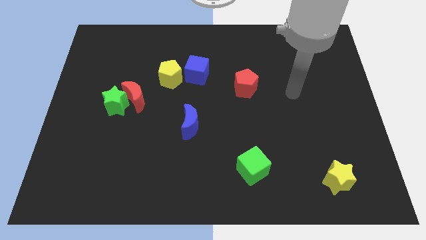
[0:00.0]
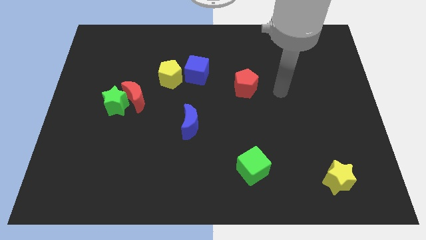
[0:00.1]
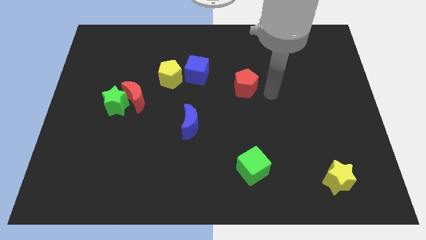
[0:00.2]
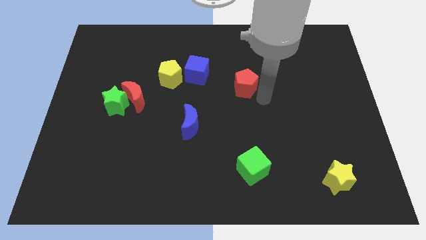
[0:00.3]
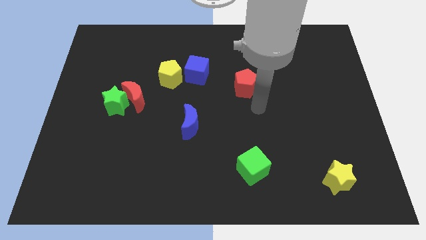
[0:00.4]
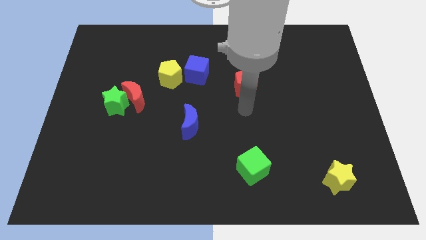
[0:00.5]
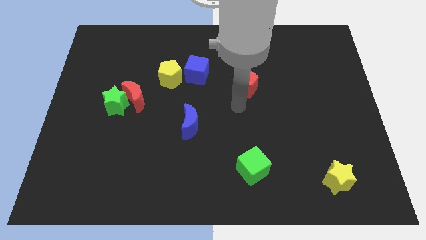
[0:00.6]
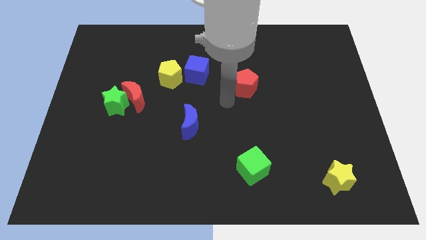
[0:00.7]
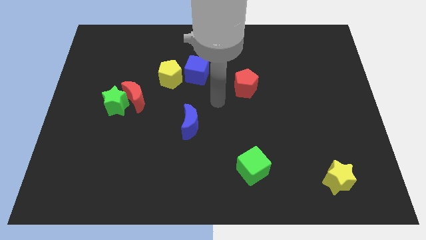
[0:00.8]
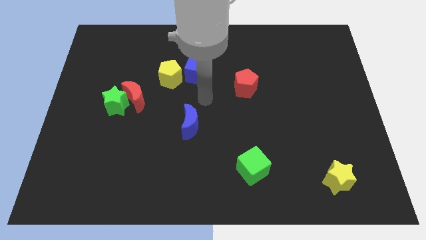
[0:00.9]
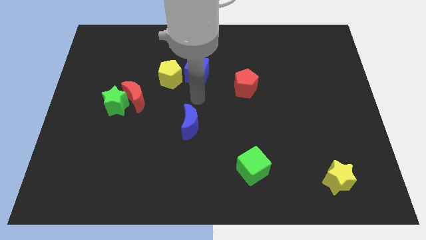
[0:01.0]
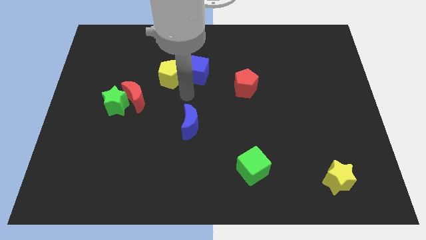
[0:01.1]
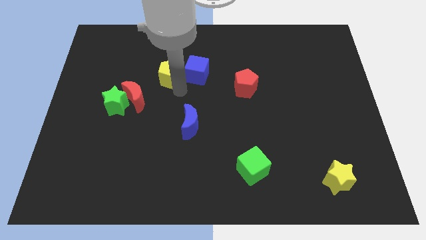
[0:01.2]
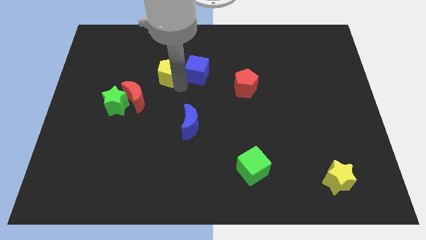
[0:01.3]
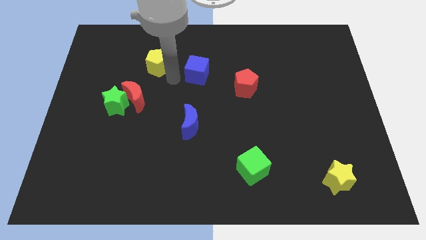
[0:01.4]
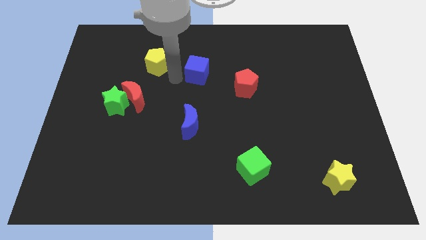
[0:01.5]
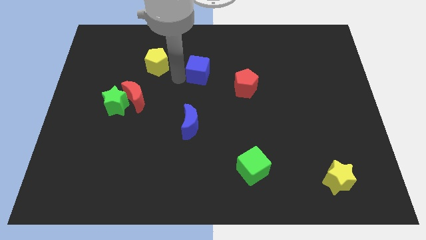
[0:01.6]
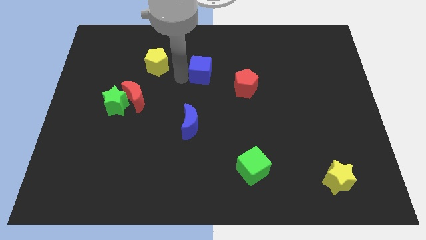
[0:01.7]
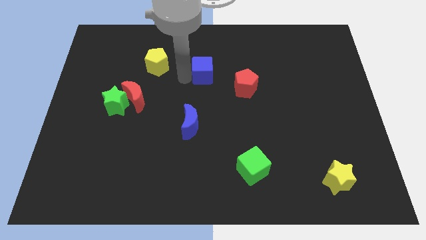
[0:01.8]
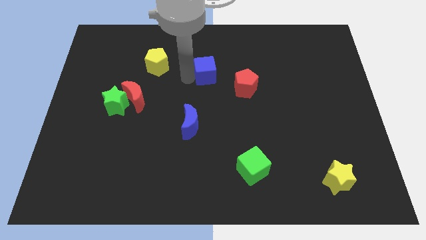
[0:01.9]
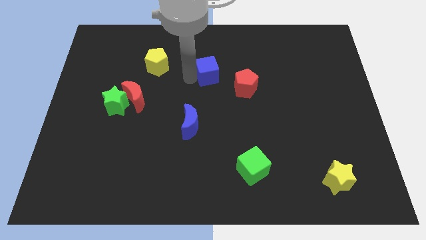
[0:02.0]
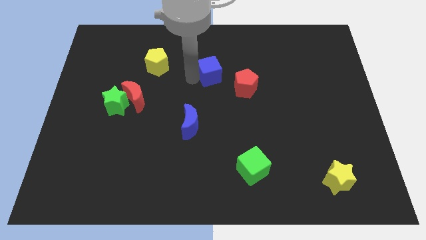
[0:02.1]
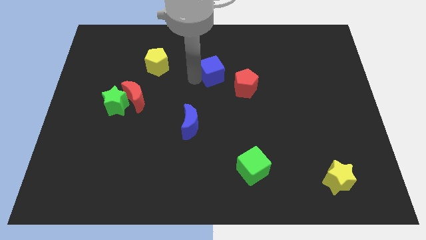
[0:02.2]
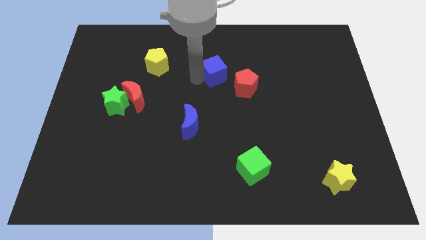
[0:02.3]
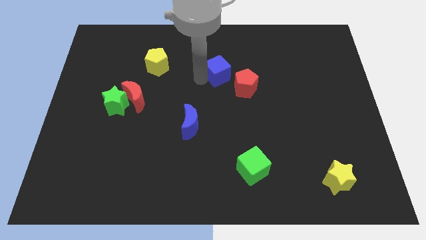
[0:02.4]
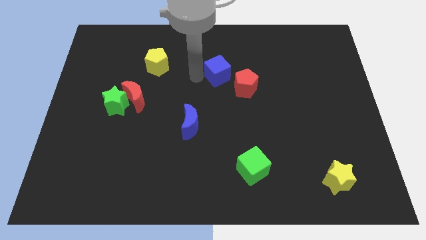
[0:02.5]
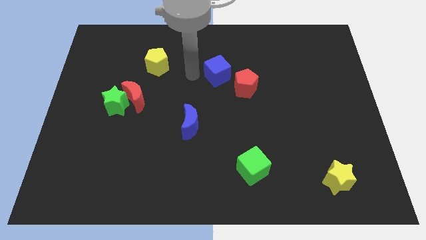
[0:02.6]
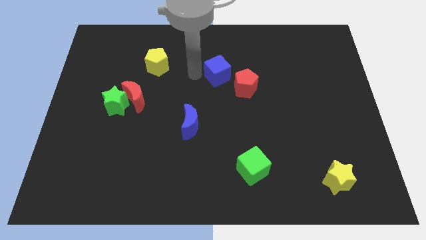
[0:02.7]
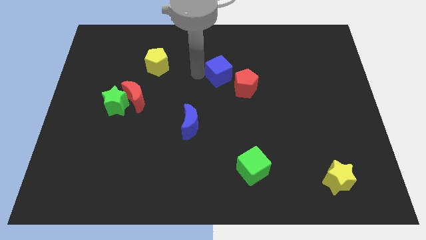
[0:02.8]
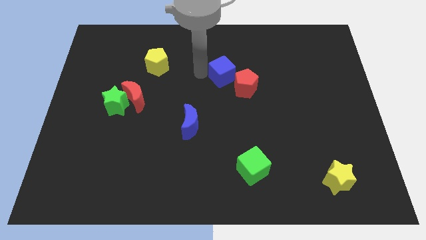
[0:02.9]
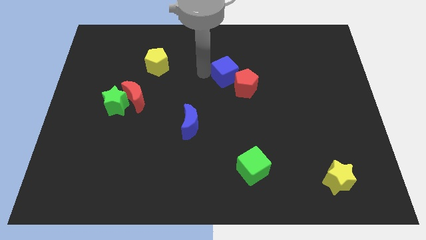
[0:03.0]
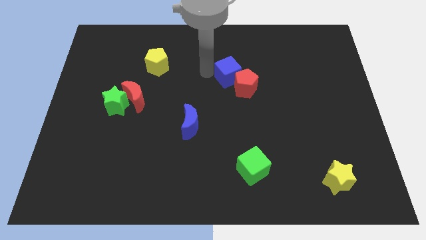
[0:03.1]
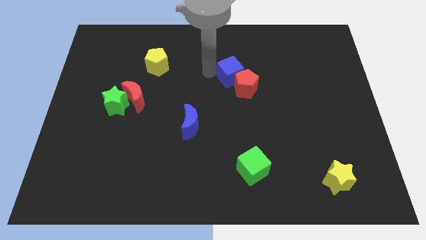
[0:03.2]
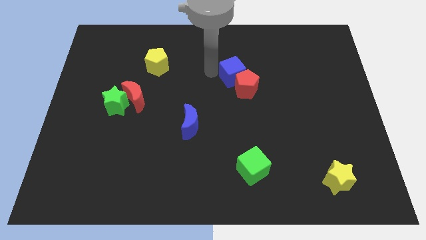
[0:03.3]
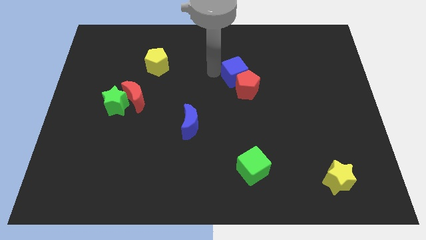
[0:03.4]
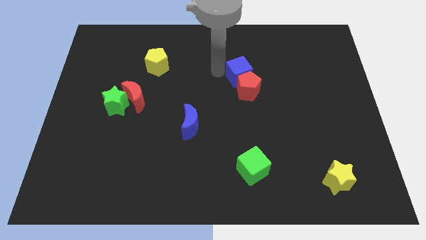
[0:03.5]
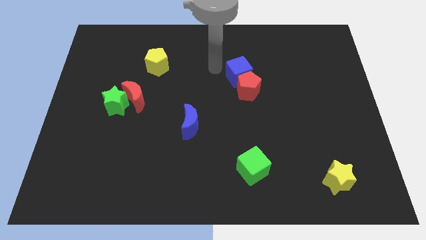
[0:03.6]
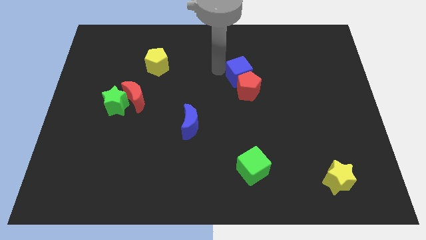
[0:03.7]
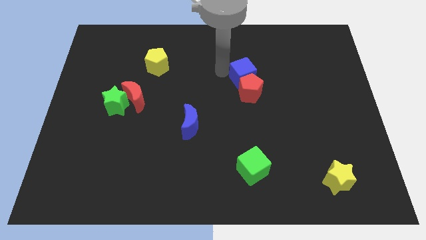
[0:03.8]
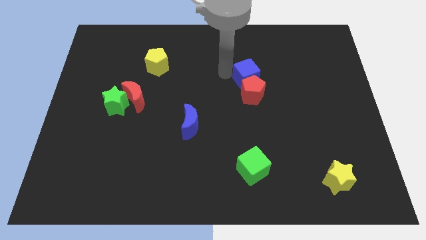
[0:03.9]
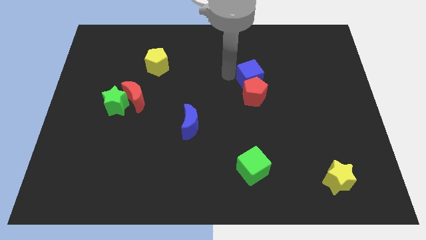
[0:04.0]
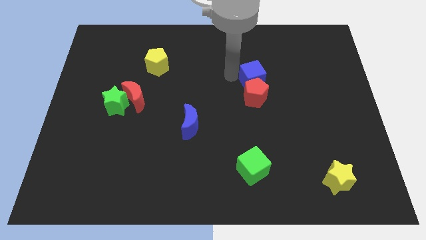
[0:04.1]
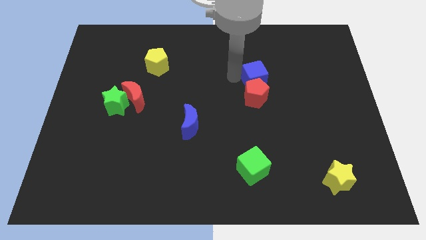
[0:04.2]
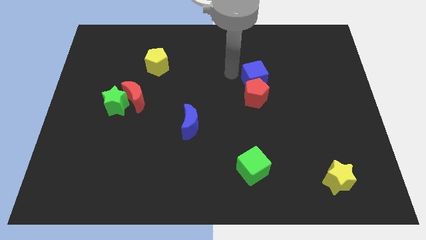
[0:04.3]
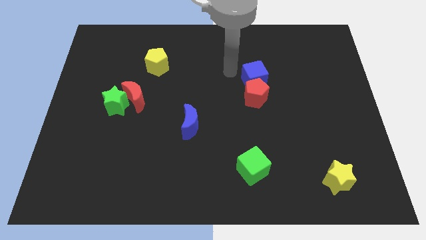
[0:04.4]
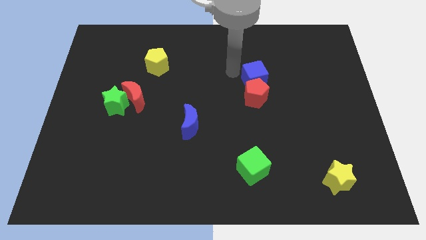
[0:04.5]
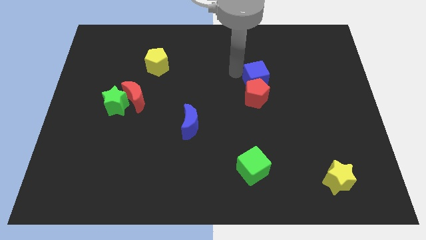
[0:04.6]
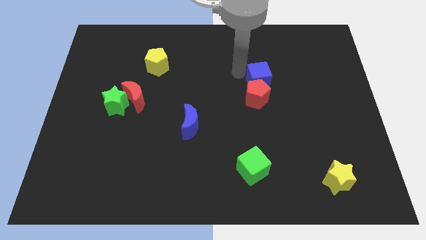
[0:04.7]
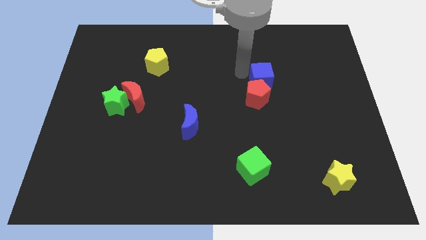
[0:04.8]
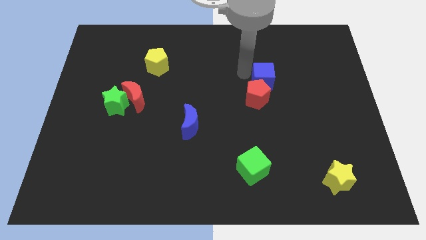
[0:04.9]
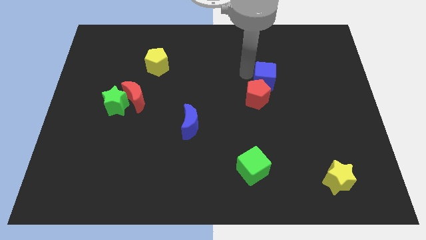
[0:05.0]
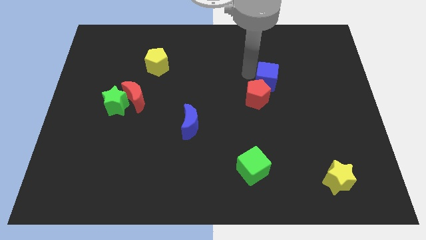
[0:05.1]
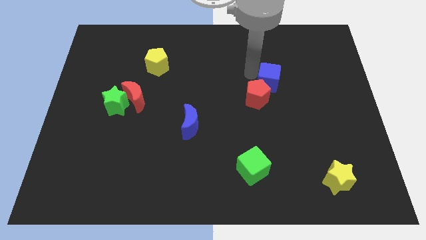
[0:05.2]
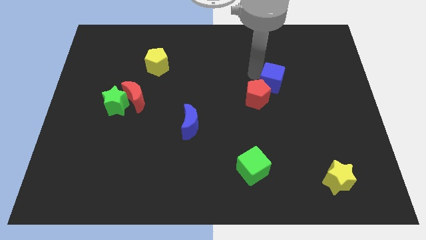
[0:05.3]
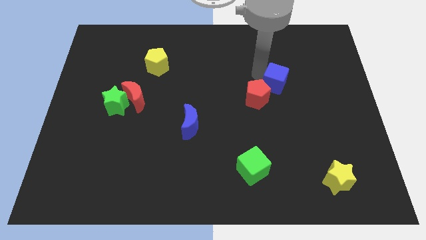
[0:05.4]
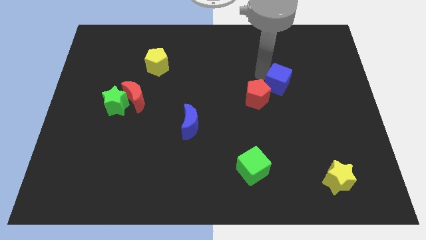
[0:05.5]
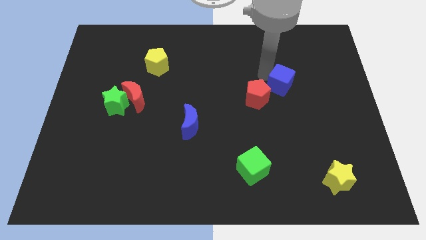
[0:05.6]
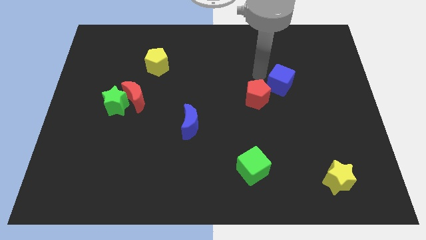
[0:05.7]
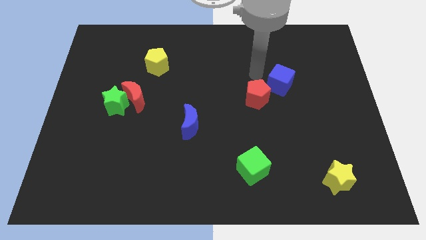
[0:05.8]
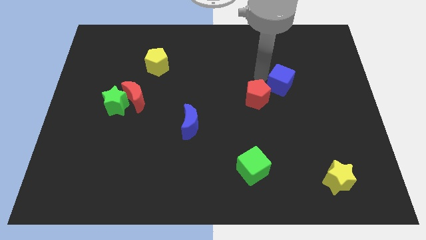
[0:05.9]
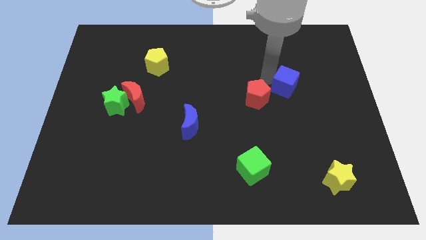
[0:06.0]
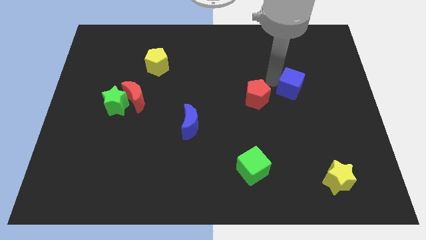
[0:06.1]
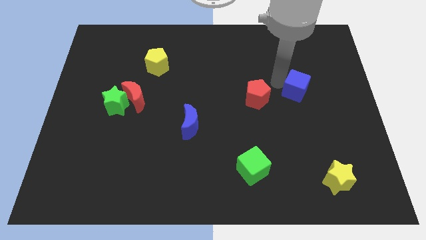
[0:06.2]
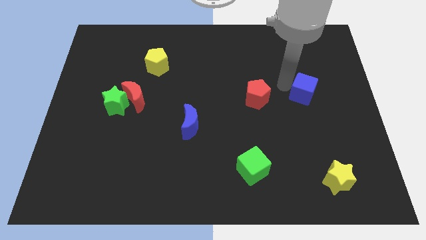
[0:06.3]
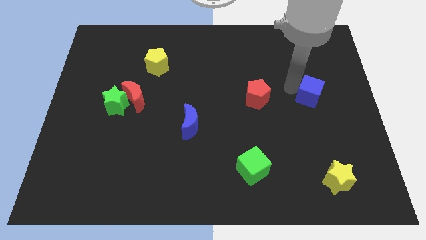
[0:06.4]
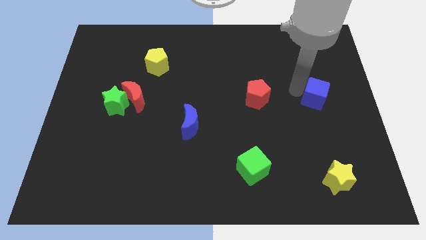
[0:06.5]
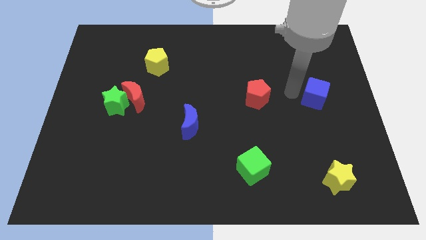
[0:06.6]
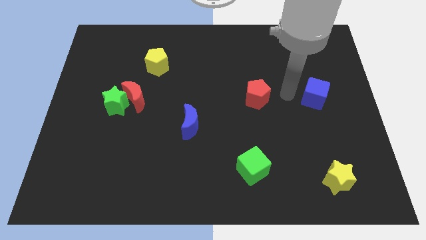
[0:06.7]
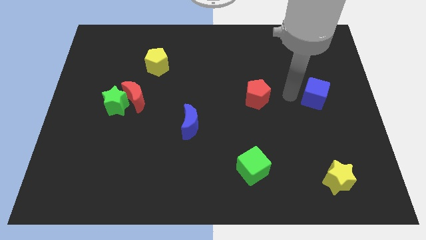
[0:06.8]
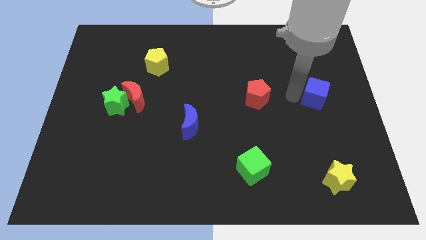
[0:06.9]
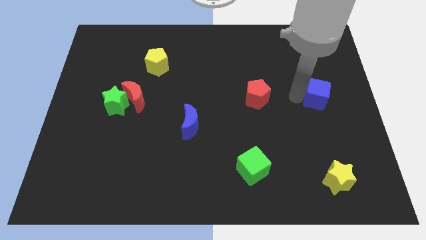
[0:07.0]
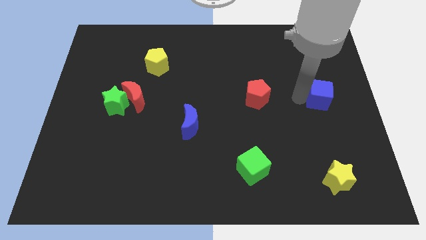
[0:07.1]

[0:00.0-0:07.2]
put the blue cube to the center right
